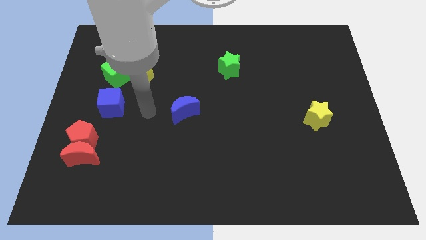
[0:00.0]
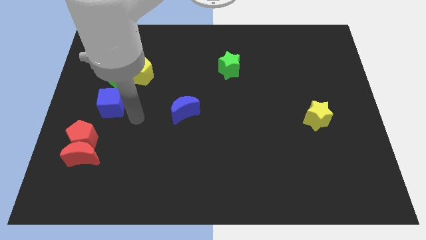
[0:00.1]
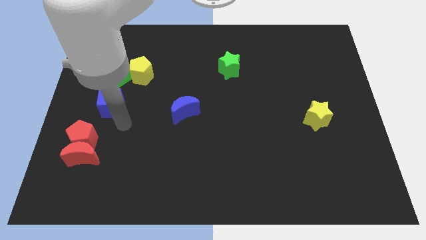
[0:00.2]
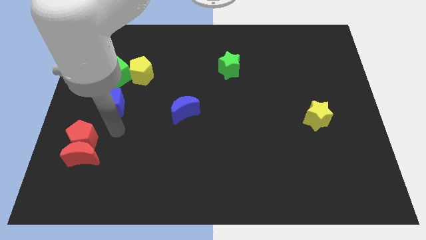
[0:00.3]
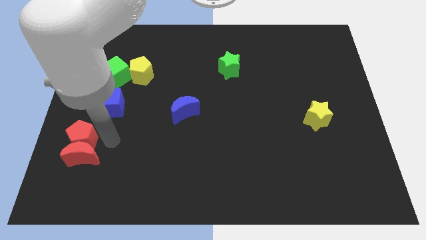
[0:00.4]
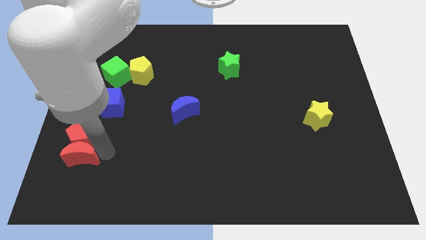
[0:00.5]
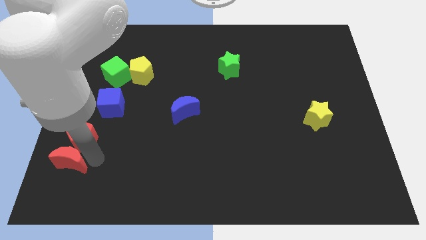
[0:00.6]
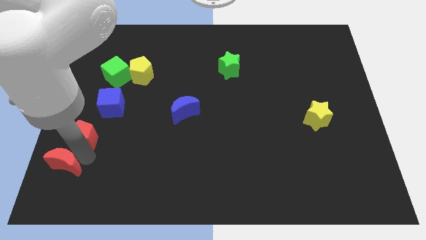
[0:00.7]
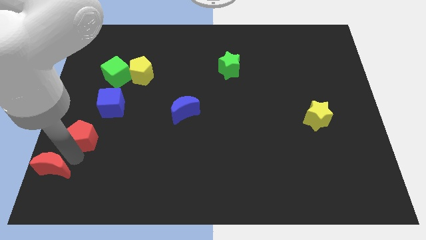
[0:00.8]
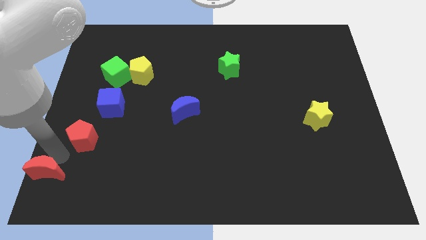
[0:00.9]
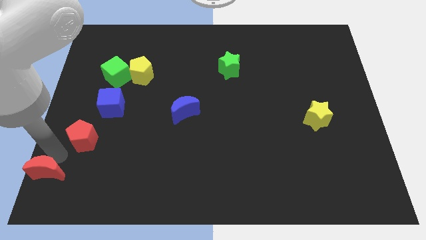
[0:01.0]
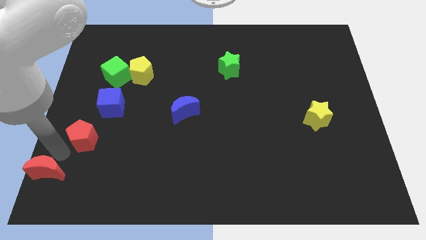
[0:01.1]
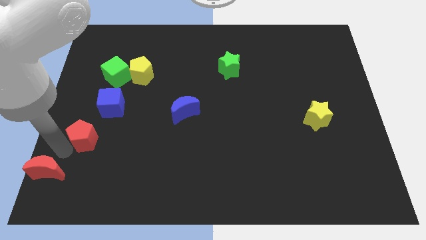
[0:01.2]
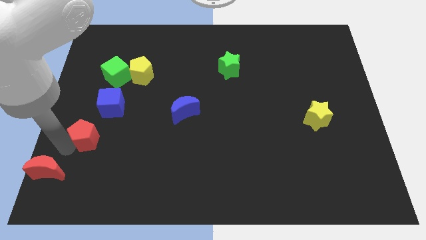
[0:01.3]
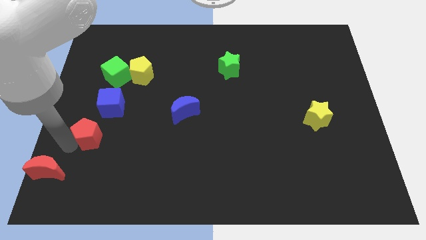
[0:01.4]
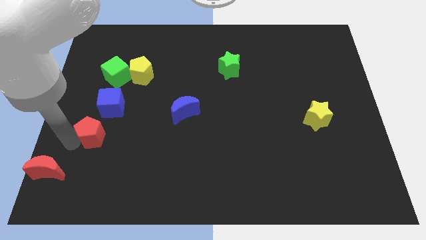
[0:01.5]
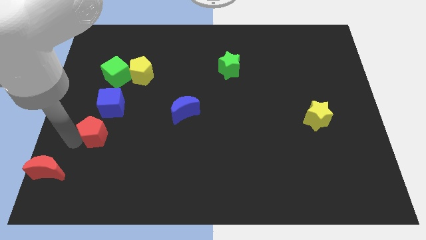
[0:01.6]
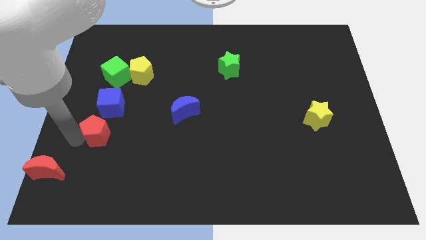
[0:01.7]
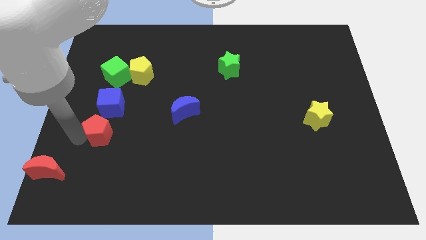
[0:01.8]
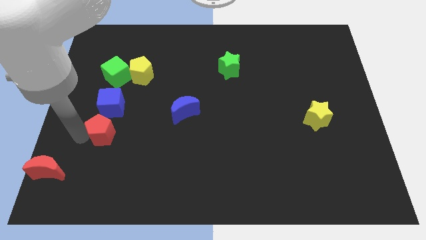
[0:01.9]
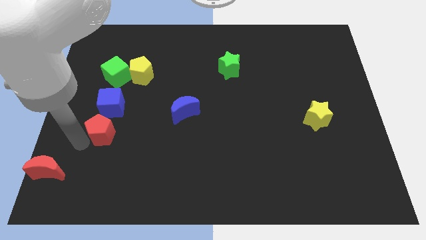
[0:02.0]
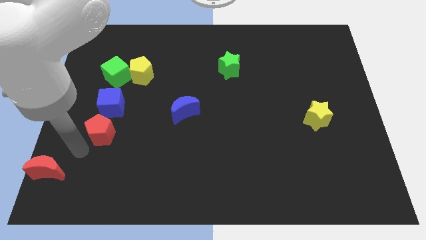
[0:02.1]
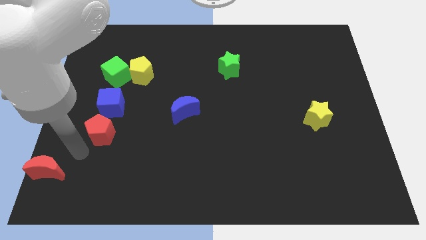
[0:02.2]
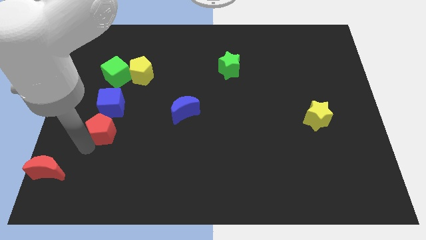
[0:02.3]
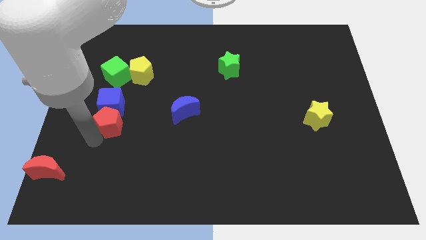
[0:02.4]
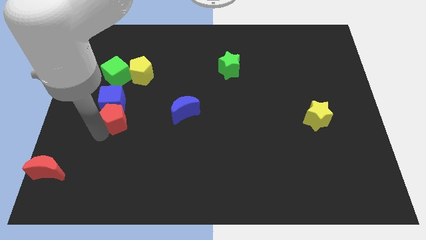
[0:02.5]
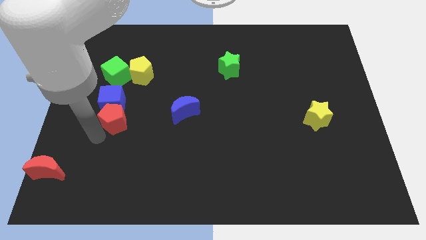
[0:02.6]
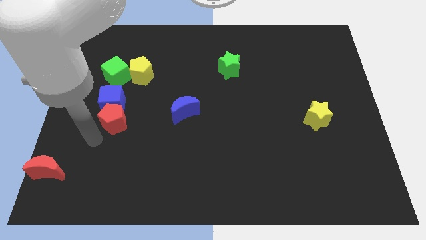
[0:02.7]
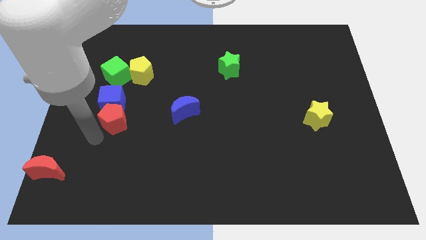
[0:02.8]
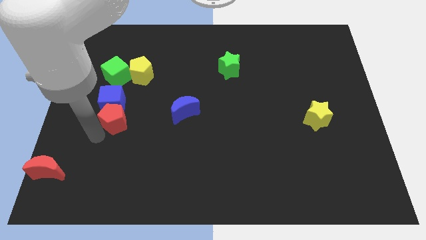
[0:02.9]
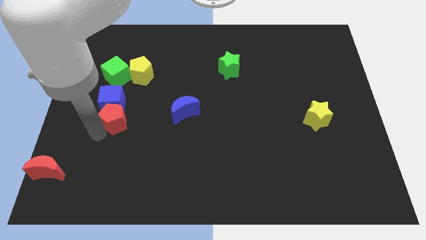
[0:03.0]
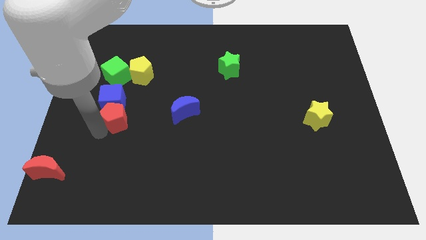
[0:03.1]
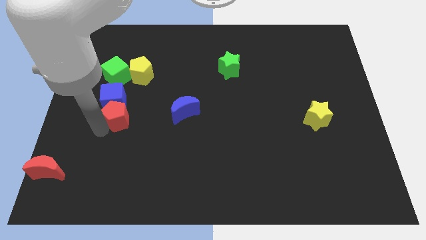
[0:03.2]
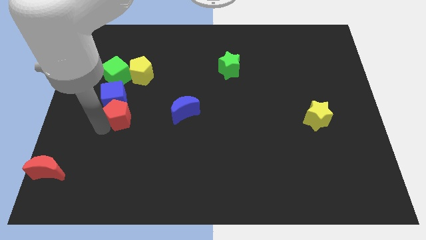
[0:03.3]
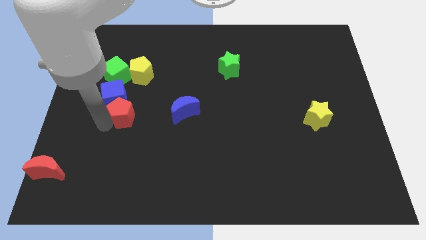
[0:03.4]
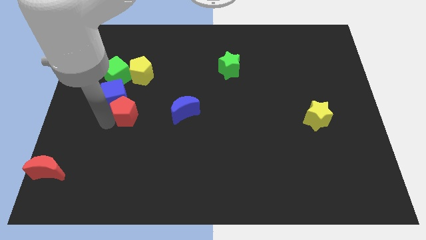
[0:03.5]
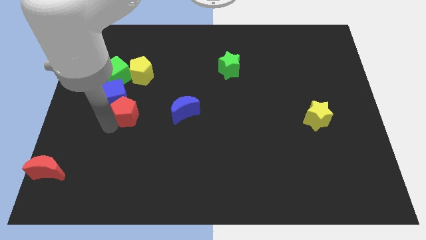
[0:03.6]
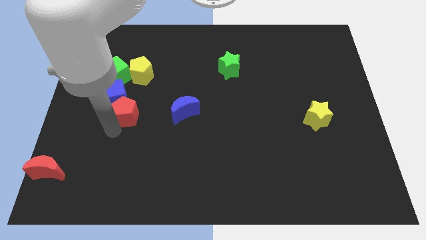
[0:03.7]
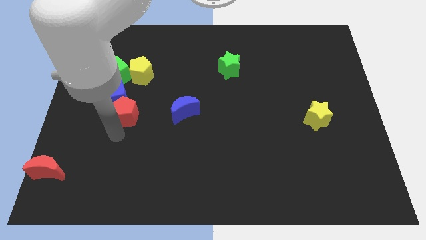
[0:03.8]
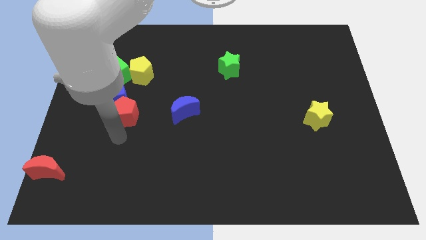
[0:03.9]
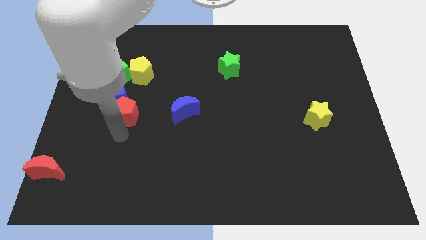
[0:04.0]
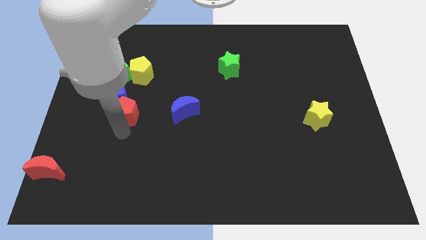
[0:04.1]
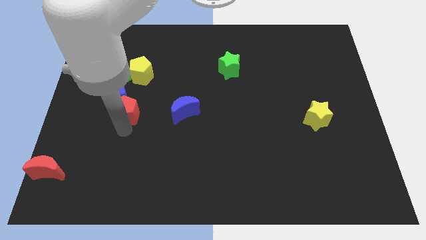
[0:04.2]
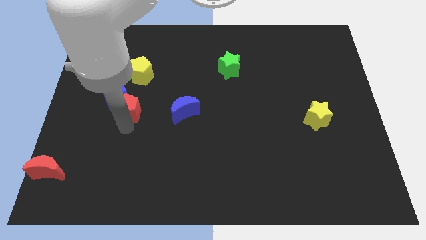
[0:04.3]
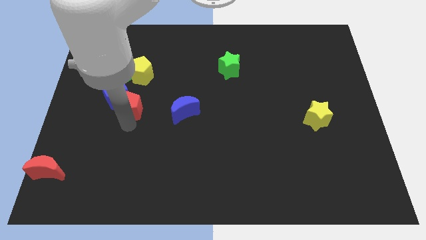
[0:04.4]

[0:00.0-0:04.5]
put the red pentagon diagonally down and to the right of the green cube

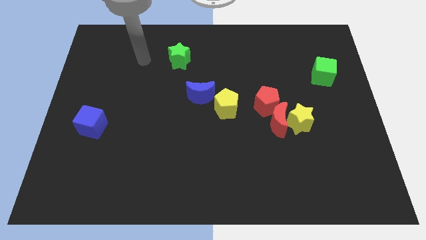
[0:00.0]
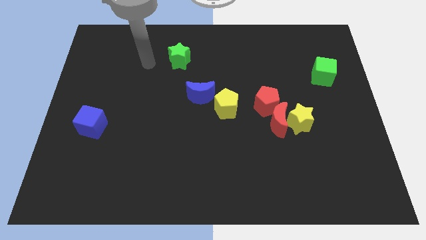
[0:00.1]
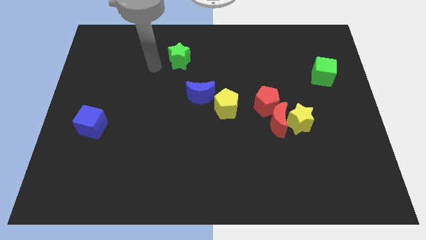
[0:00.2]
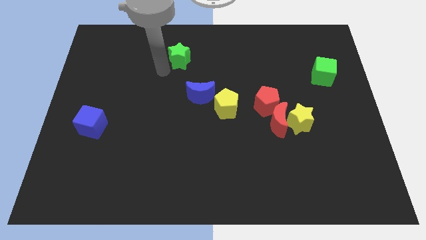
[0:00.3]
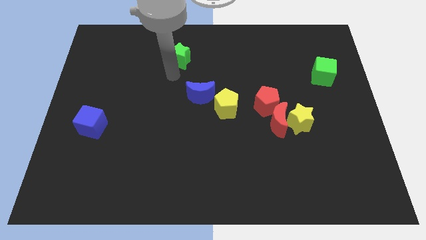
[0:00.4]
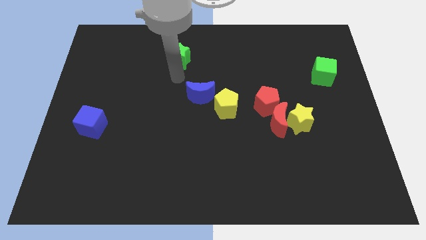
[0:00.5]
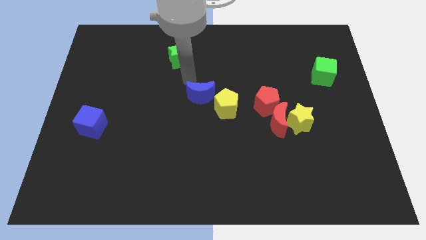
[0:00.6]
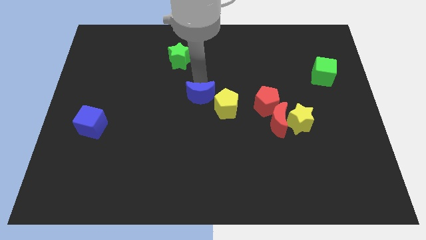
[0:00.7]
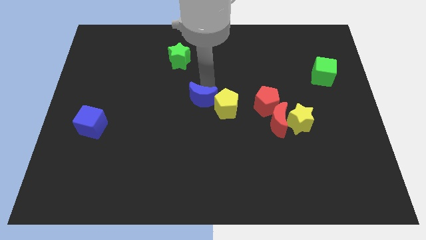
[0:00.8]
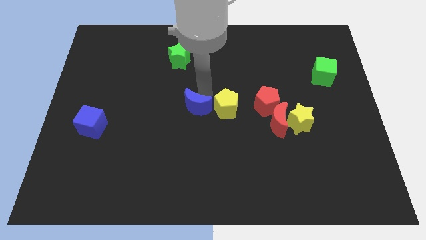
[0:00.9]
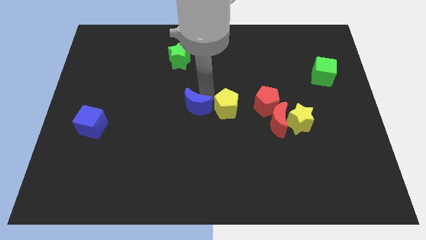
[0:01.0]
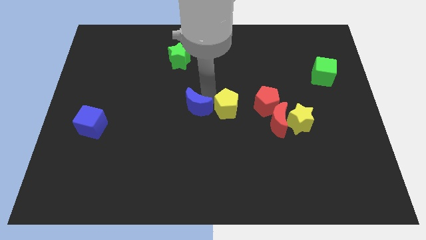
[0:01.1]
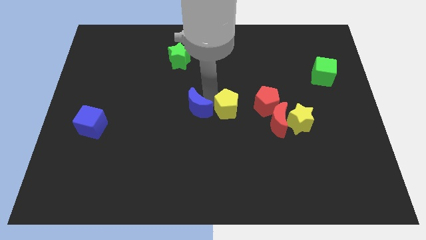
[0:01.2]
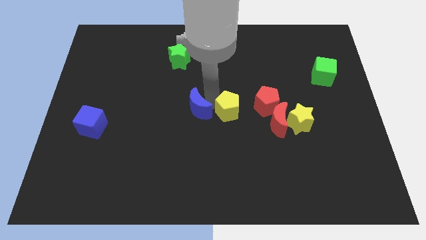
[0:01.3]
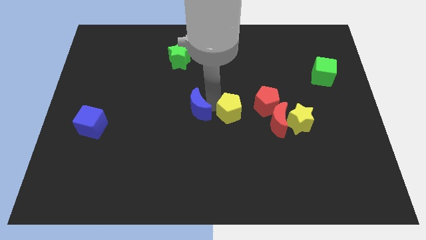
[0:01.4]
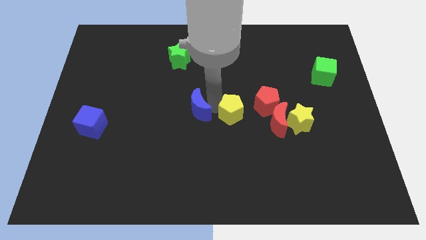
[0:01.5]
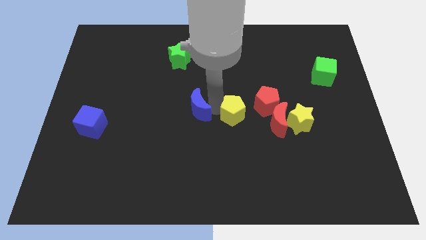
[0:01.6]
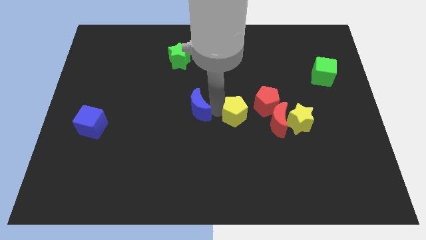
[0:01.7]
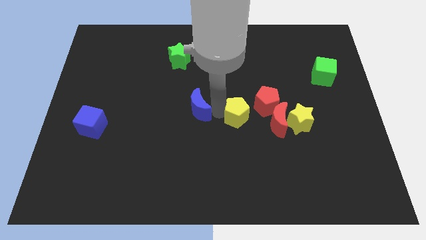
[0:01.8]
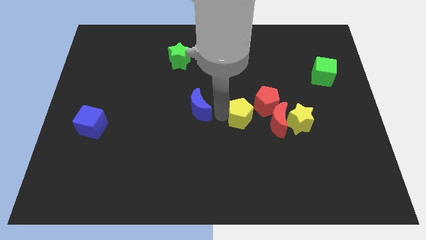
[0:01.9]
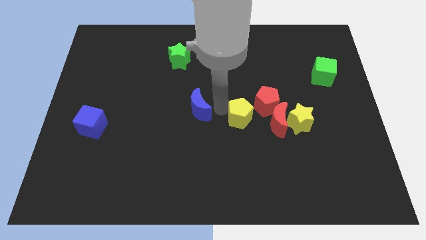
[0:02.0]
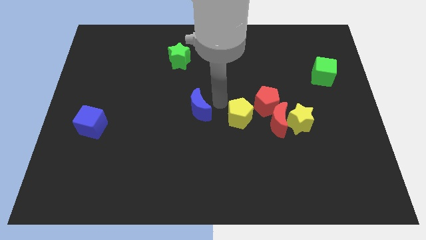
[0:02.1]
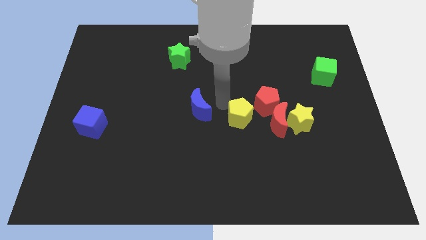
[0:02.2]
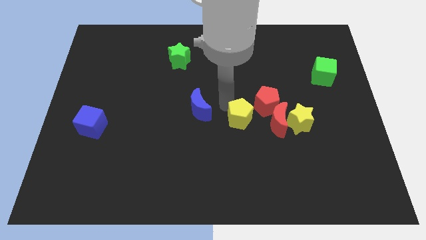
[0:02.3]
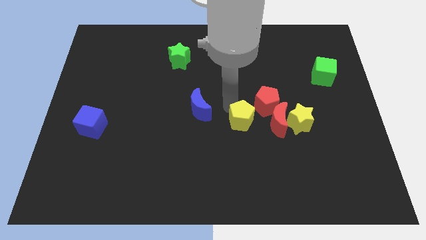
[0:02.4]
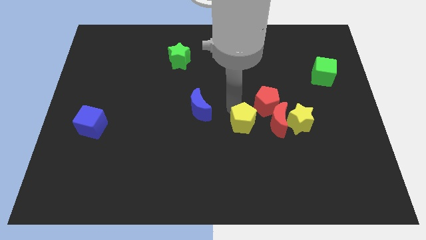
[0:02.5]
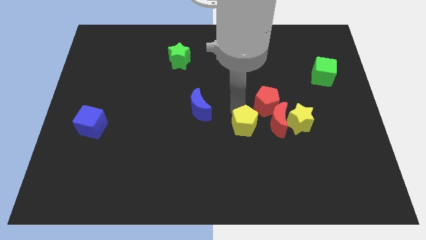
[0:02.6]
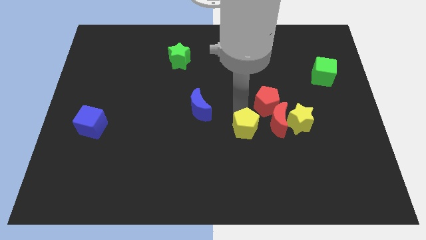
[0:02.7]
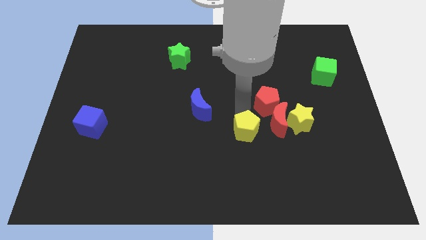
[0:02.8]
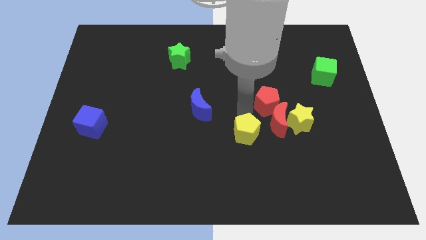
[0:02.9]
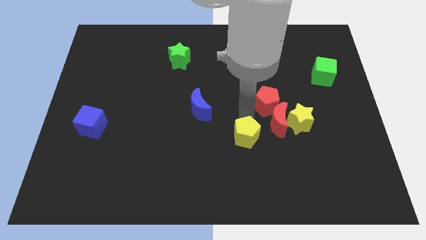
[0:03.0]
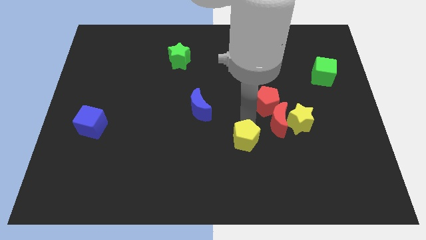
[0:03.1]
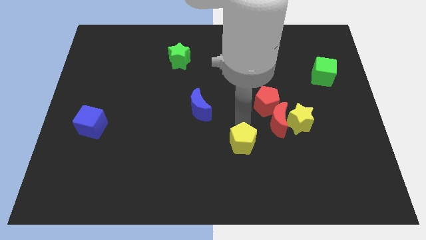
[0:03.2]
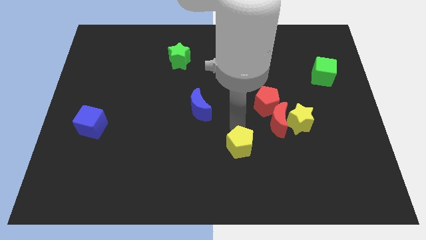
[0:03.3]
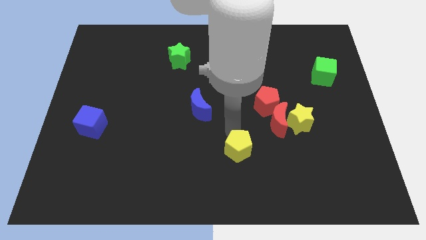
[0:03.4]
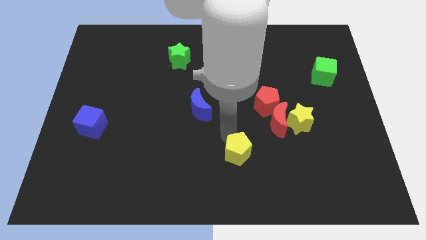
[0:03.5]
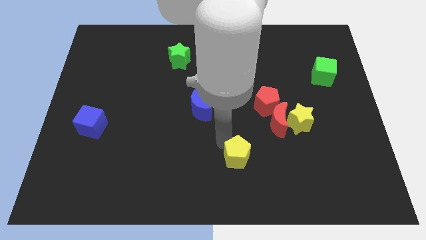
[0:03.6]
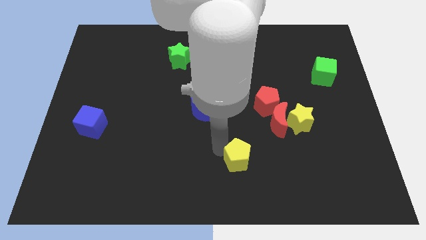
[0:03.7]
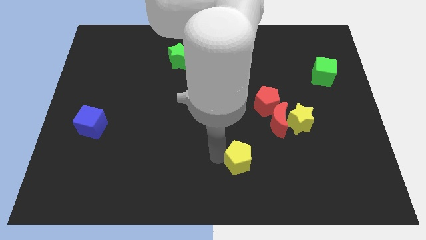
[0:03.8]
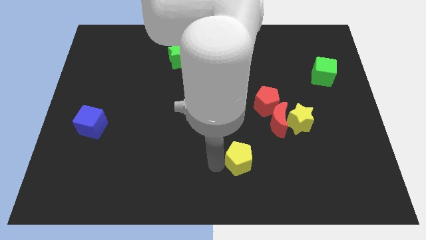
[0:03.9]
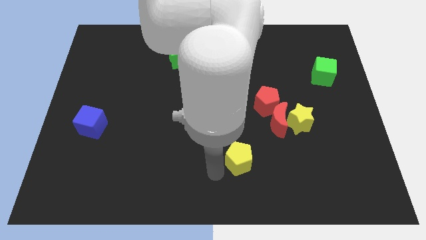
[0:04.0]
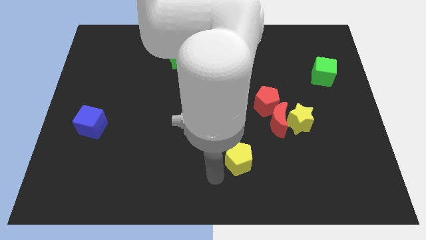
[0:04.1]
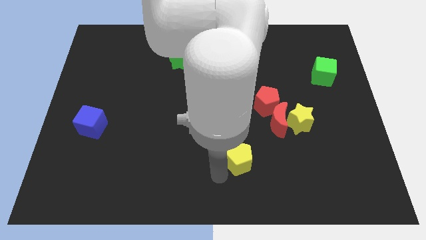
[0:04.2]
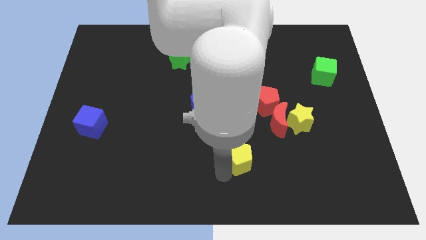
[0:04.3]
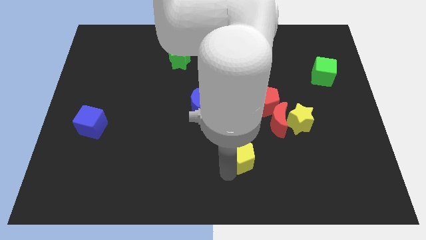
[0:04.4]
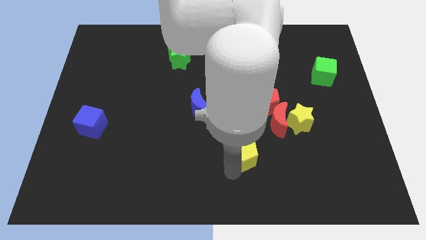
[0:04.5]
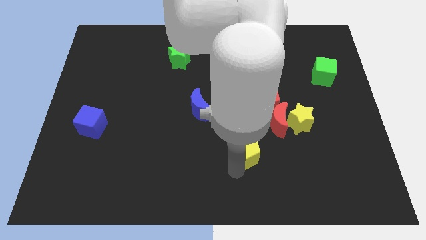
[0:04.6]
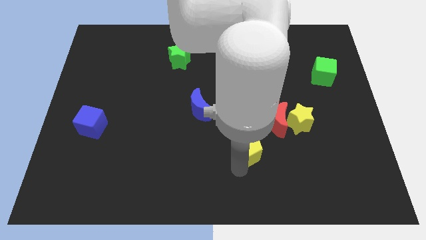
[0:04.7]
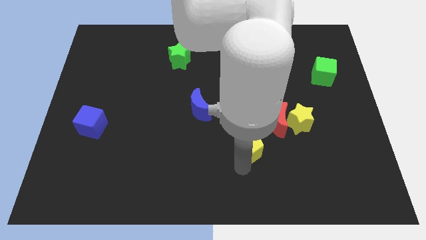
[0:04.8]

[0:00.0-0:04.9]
move the yellow pentagon to the bottom side of the red pentagon
